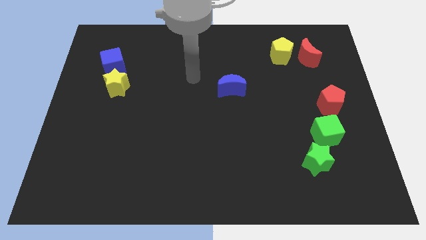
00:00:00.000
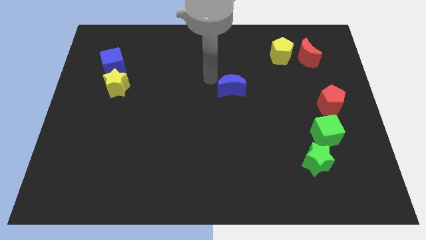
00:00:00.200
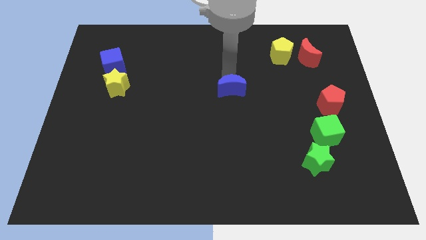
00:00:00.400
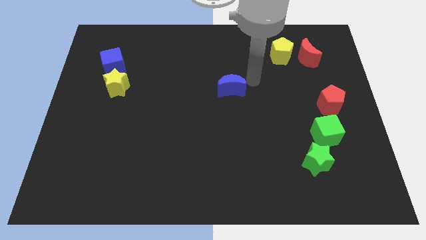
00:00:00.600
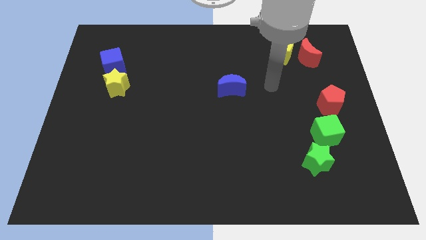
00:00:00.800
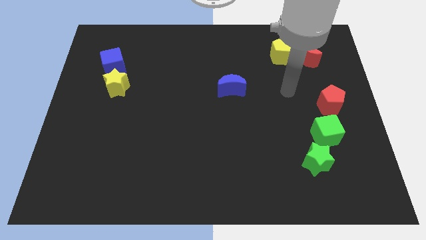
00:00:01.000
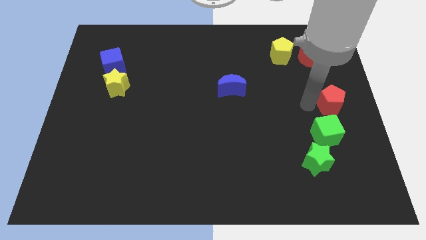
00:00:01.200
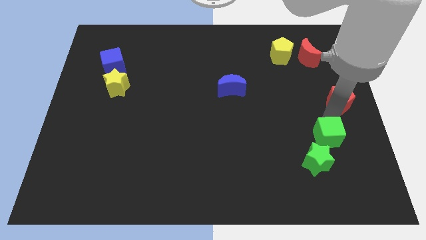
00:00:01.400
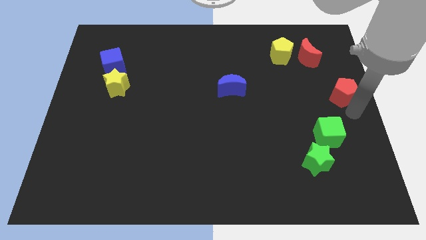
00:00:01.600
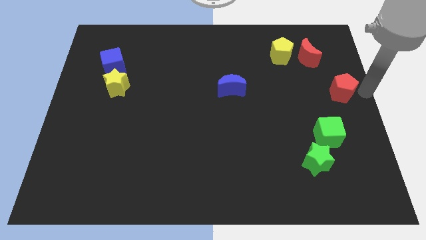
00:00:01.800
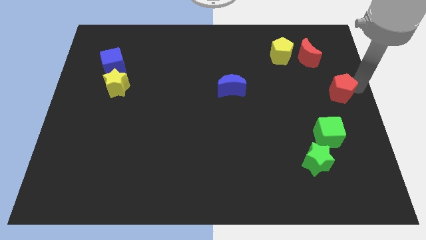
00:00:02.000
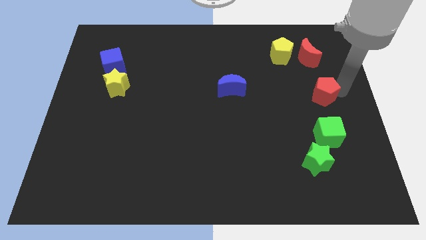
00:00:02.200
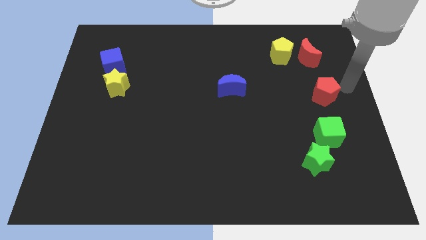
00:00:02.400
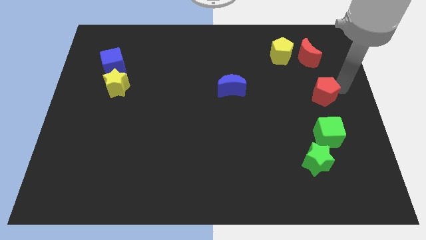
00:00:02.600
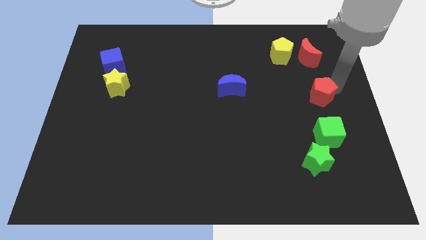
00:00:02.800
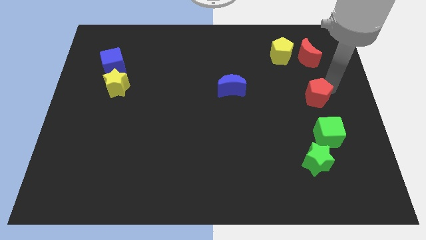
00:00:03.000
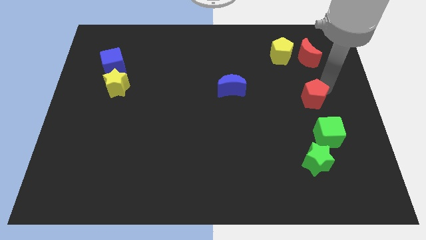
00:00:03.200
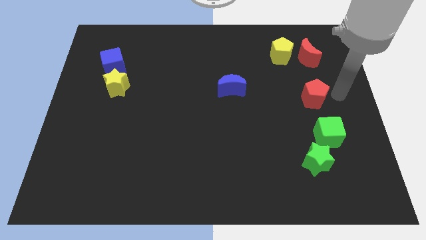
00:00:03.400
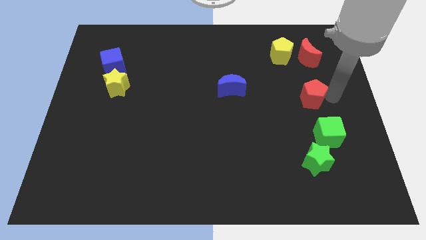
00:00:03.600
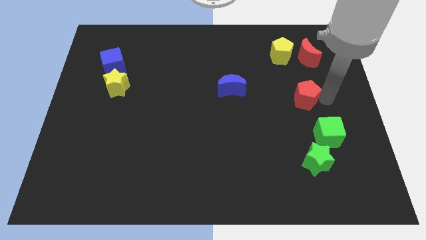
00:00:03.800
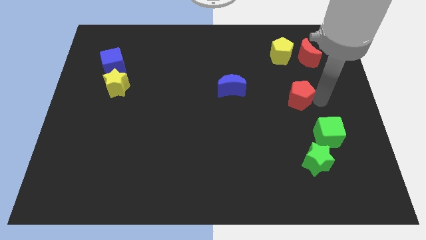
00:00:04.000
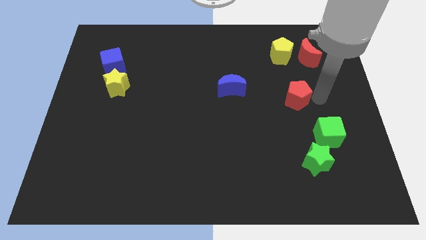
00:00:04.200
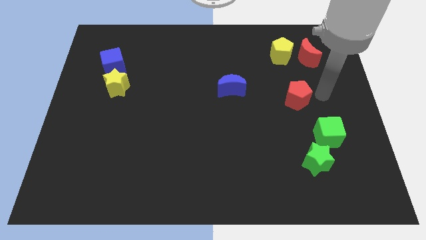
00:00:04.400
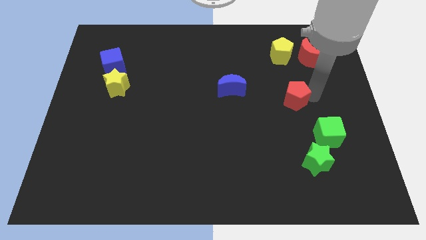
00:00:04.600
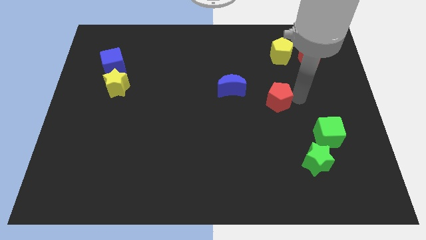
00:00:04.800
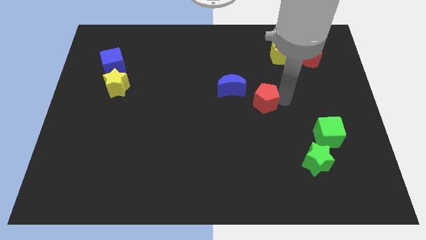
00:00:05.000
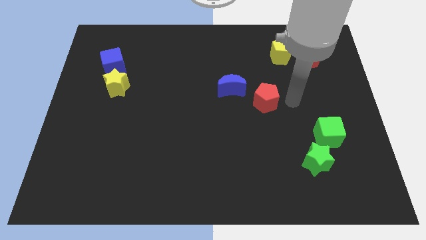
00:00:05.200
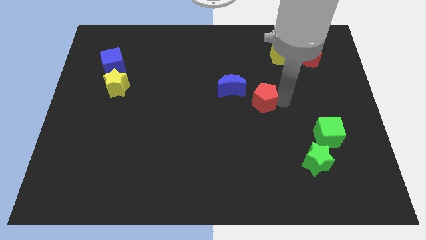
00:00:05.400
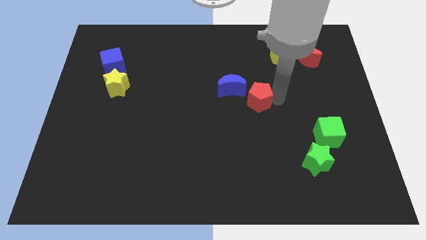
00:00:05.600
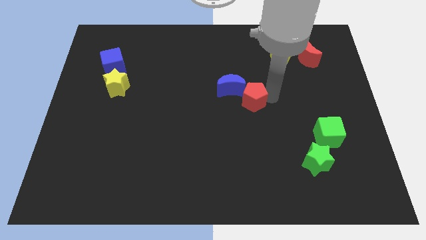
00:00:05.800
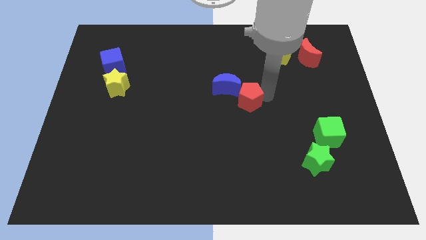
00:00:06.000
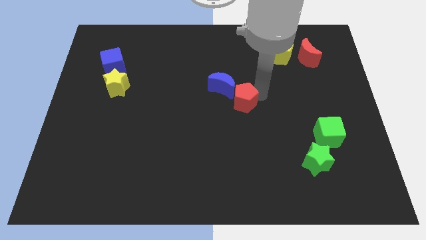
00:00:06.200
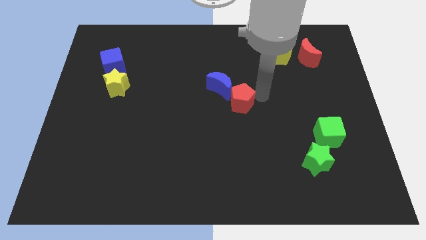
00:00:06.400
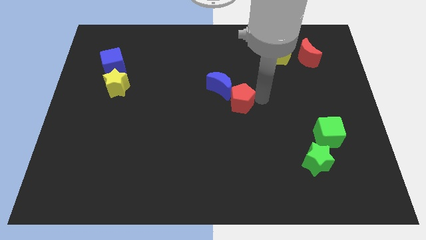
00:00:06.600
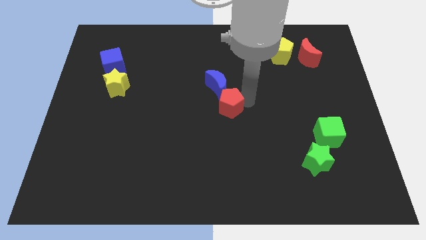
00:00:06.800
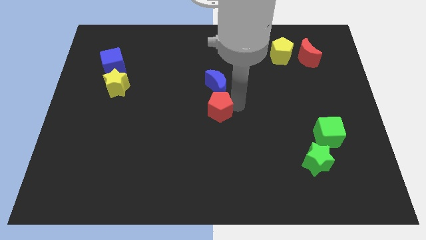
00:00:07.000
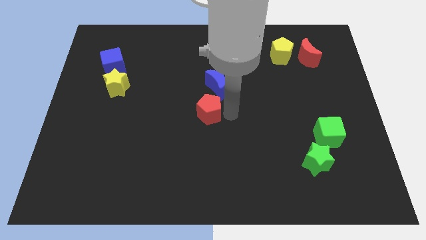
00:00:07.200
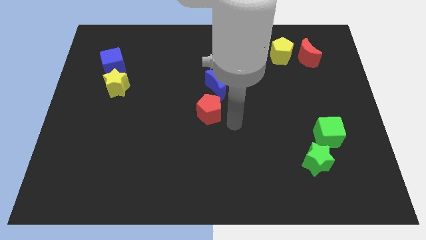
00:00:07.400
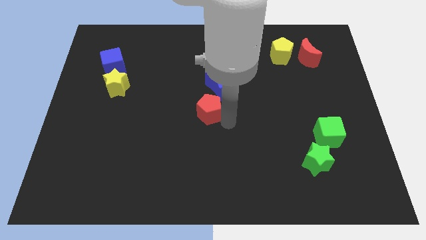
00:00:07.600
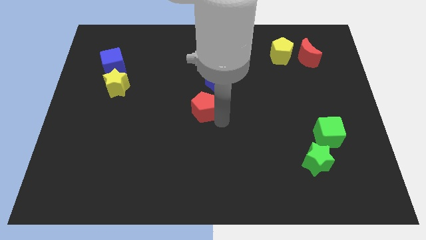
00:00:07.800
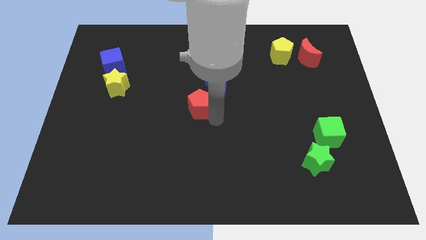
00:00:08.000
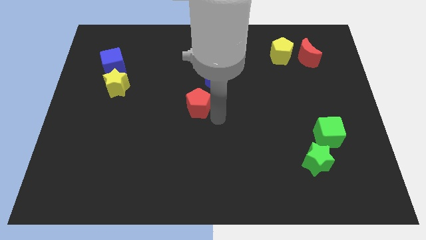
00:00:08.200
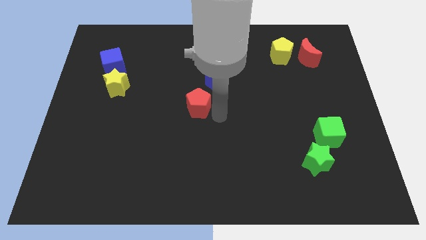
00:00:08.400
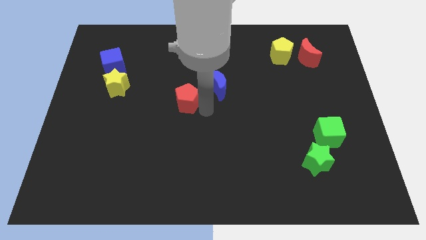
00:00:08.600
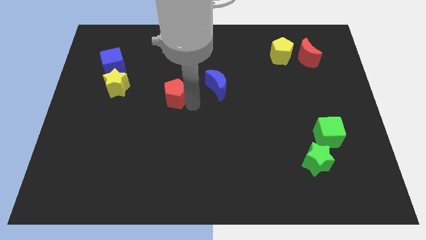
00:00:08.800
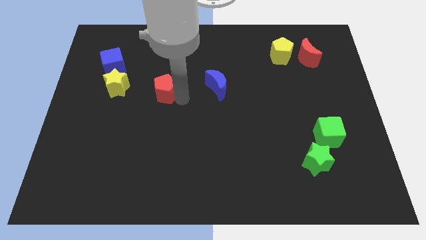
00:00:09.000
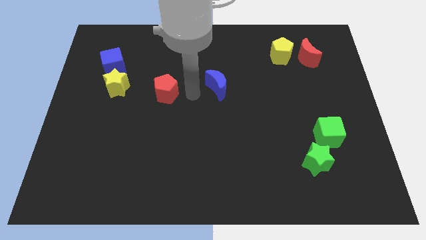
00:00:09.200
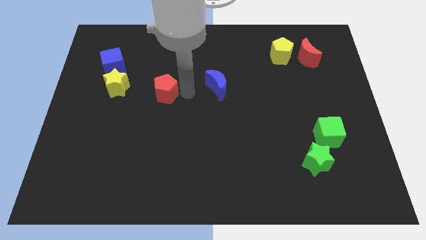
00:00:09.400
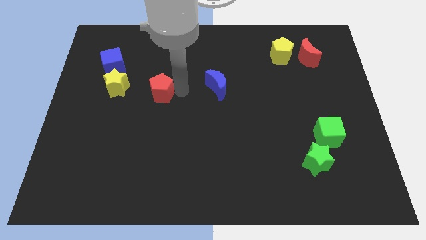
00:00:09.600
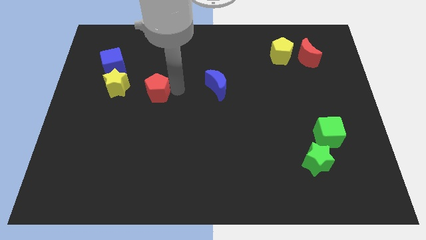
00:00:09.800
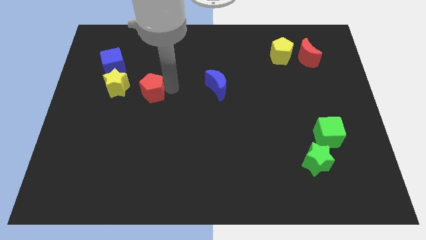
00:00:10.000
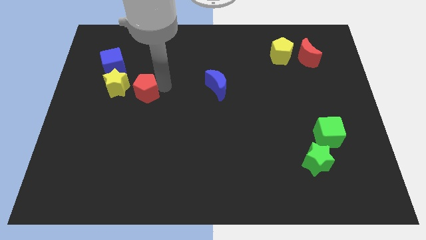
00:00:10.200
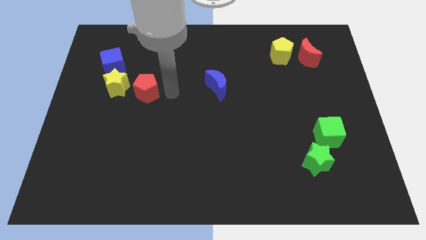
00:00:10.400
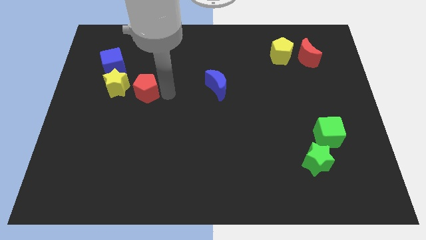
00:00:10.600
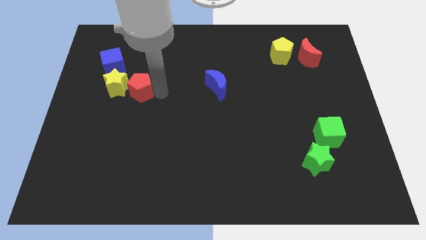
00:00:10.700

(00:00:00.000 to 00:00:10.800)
slide the red pentagon to the yellow star

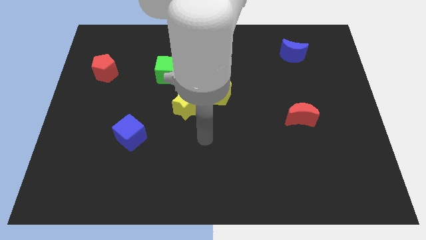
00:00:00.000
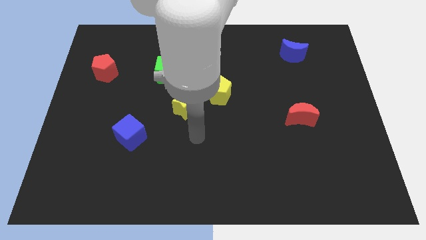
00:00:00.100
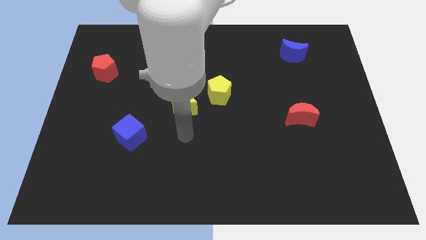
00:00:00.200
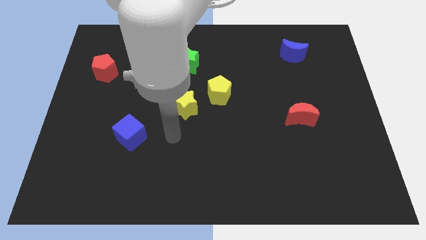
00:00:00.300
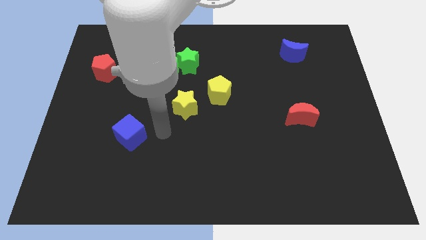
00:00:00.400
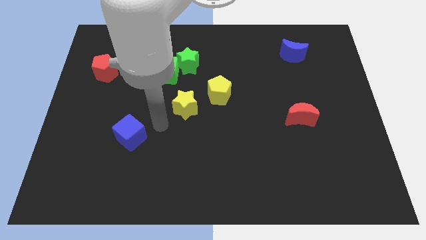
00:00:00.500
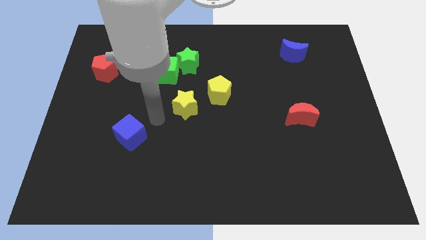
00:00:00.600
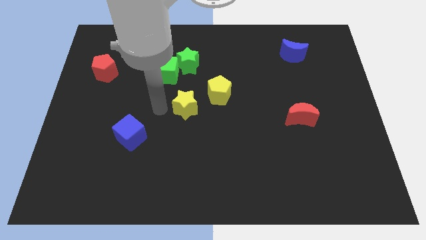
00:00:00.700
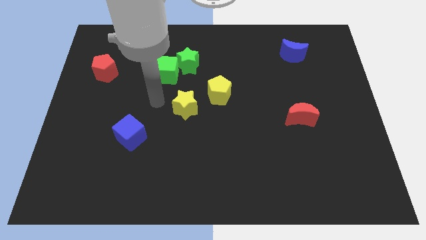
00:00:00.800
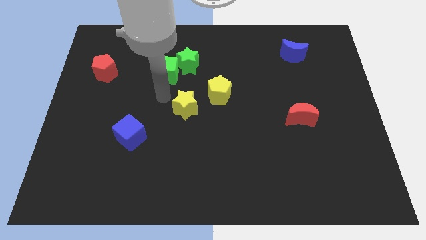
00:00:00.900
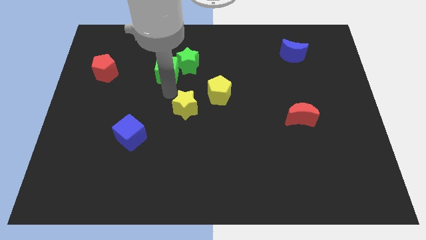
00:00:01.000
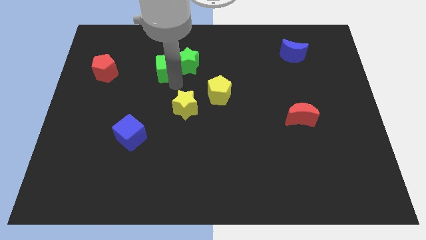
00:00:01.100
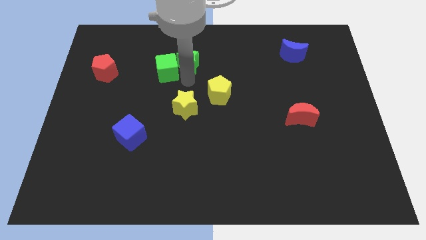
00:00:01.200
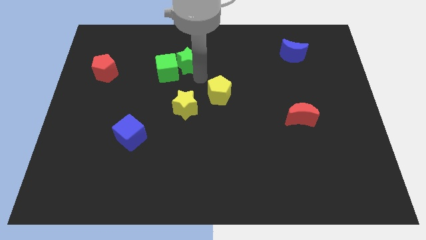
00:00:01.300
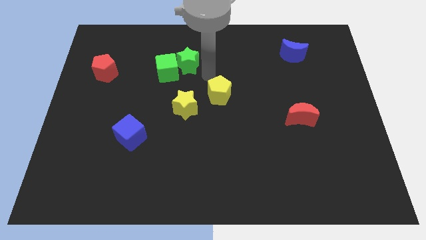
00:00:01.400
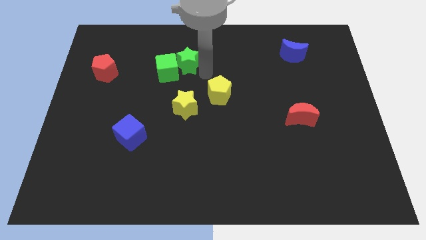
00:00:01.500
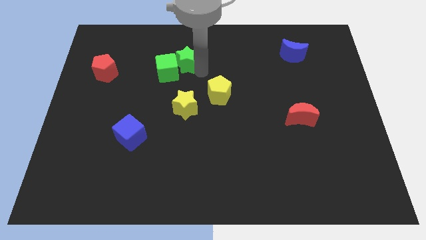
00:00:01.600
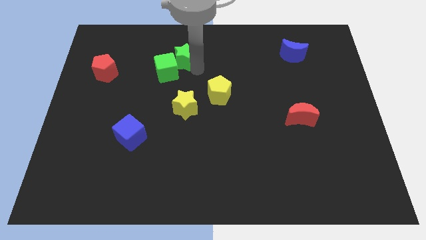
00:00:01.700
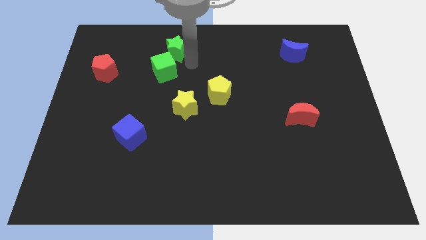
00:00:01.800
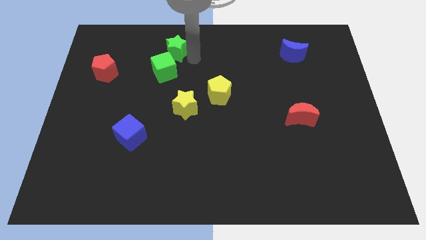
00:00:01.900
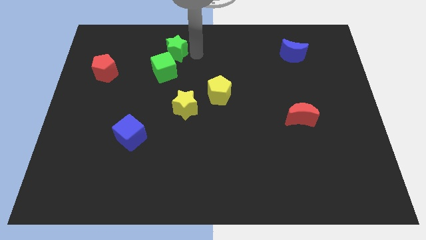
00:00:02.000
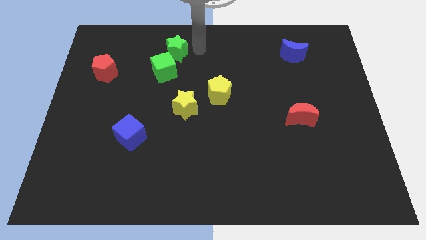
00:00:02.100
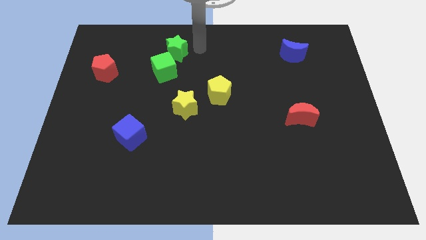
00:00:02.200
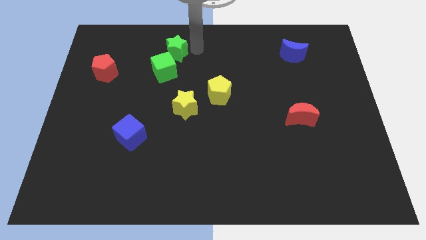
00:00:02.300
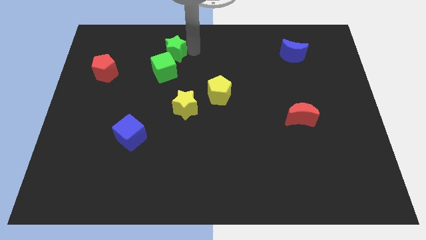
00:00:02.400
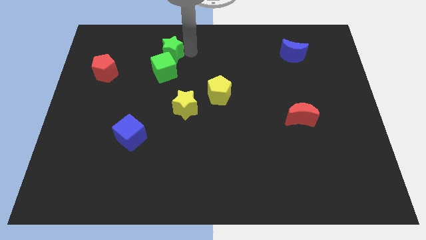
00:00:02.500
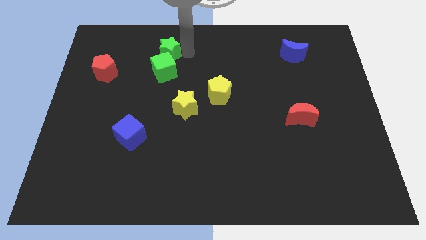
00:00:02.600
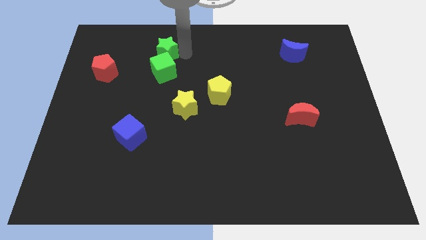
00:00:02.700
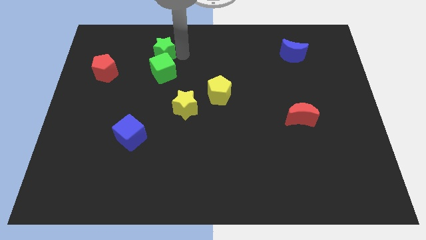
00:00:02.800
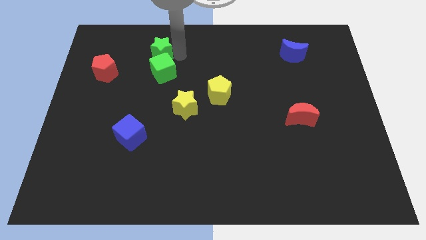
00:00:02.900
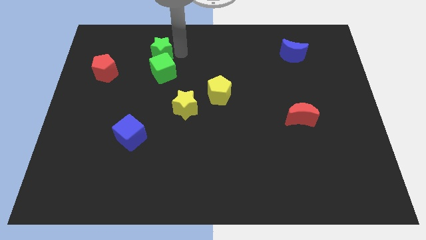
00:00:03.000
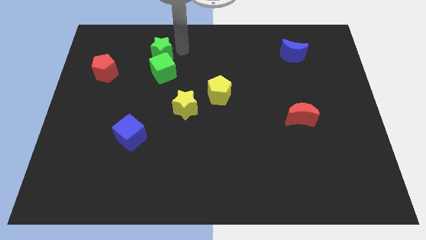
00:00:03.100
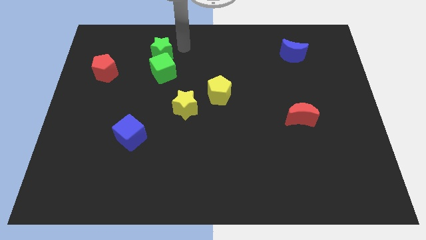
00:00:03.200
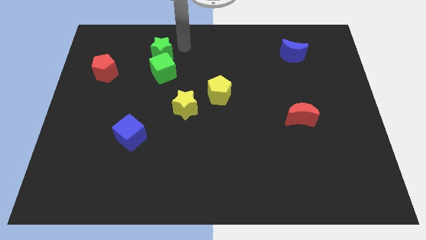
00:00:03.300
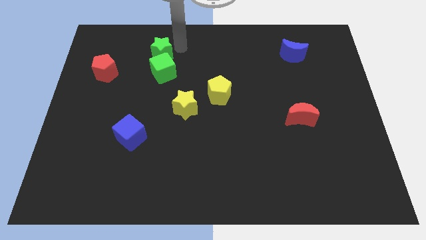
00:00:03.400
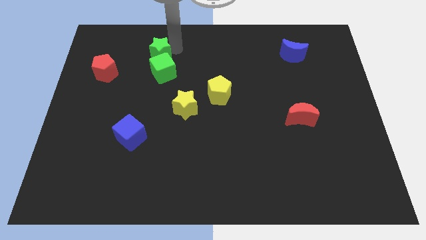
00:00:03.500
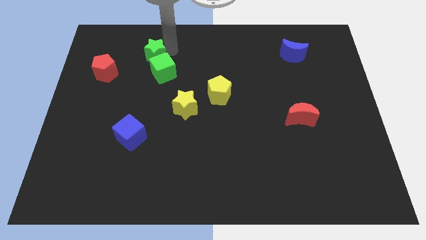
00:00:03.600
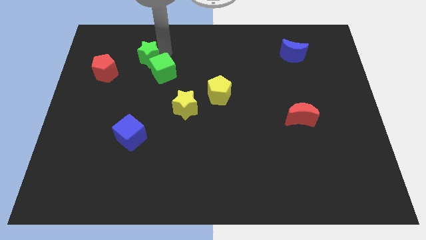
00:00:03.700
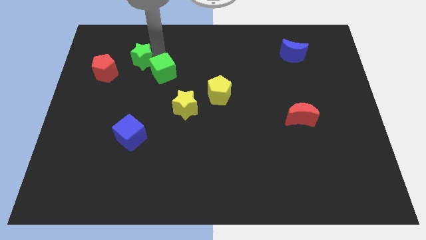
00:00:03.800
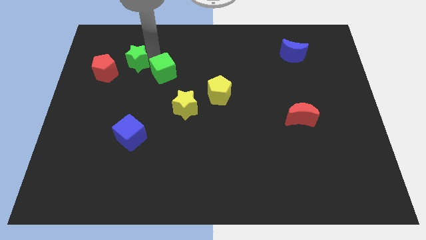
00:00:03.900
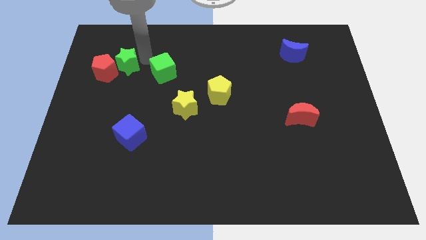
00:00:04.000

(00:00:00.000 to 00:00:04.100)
slide the green star to the red pentagon
